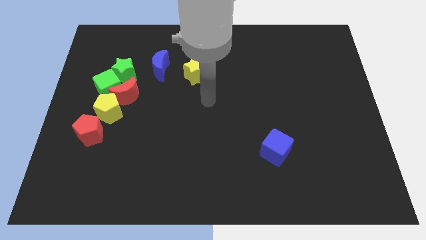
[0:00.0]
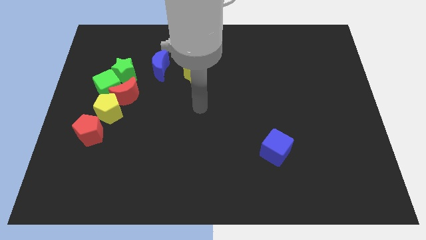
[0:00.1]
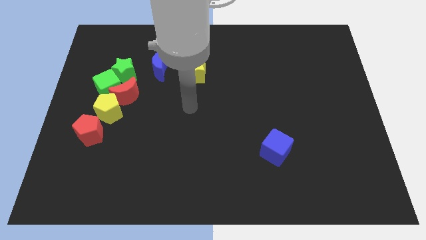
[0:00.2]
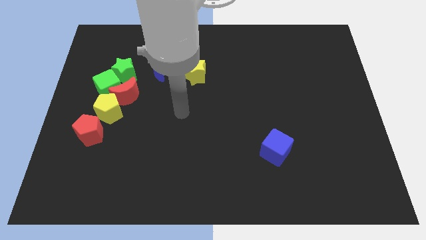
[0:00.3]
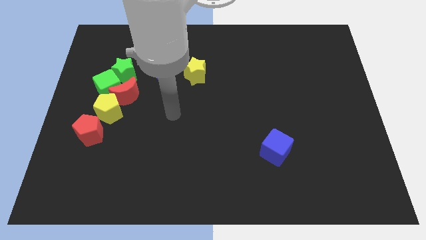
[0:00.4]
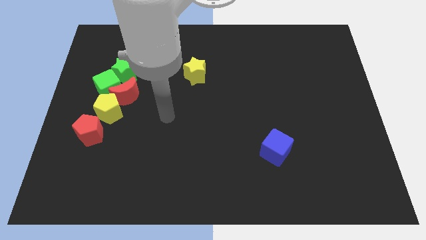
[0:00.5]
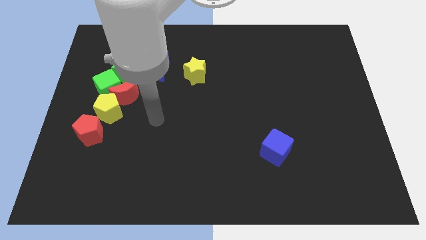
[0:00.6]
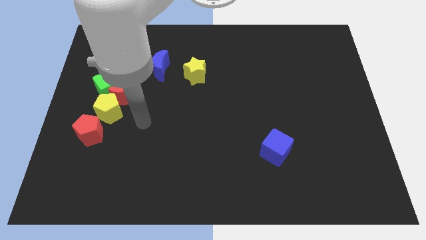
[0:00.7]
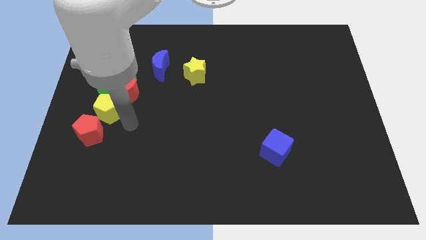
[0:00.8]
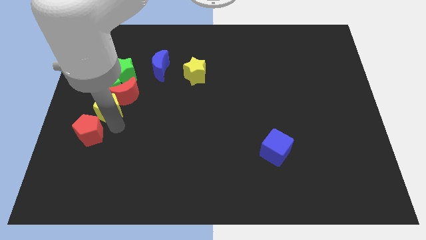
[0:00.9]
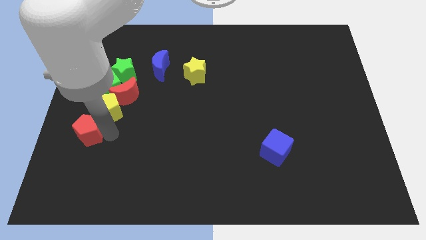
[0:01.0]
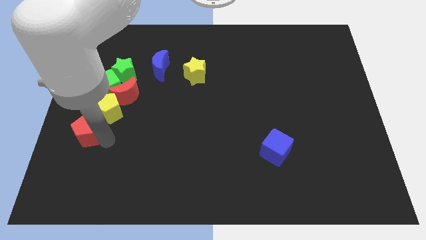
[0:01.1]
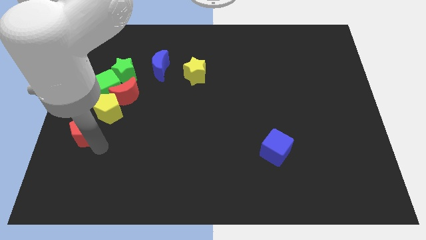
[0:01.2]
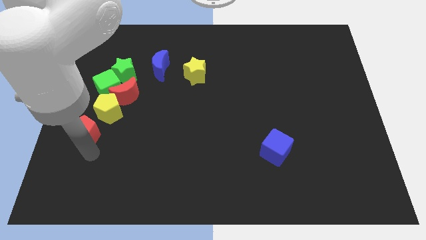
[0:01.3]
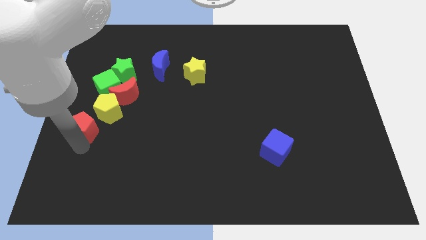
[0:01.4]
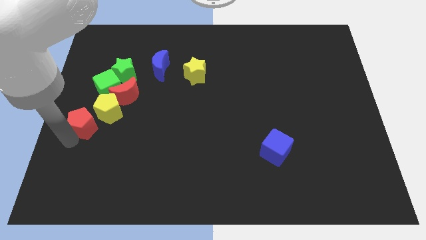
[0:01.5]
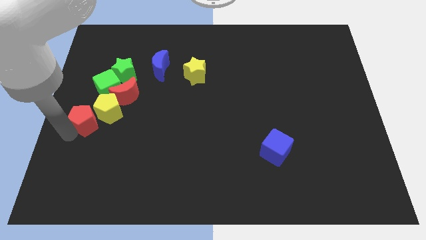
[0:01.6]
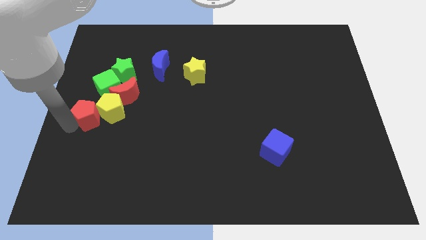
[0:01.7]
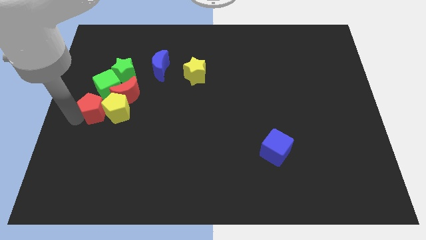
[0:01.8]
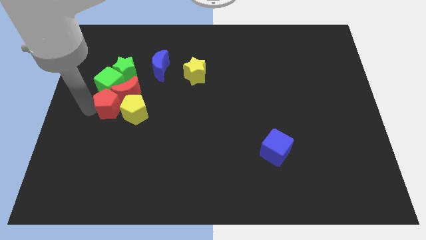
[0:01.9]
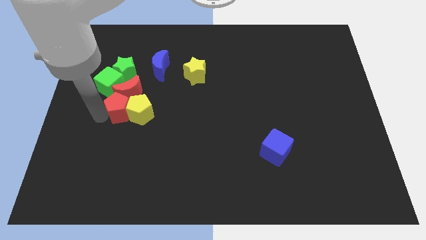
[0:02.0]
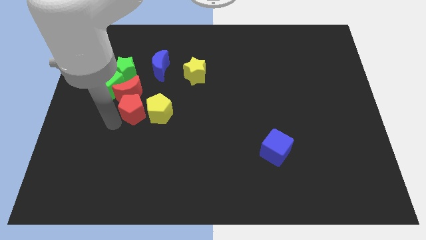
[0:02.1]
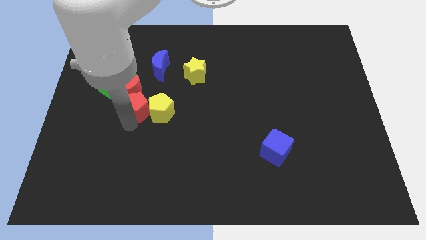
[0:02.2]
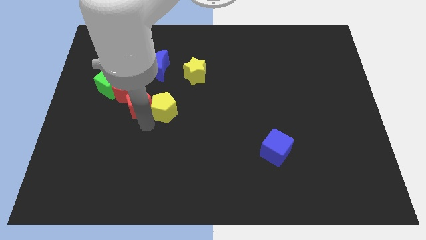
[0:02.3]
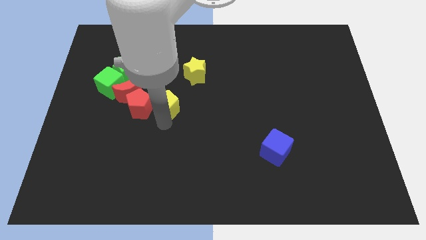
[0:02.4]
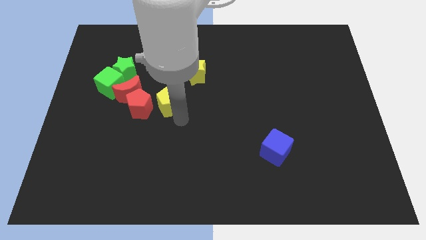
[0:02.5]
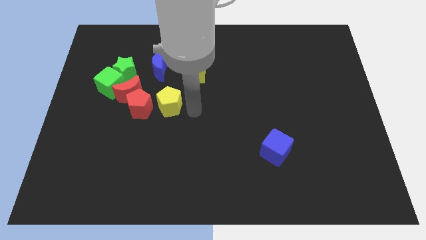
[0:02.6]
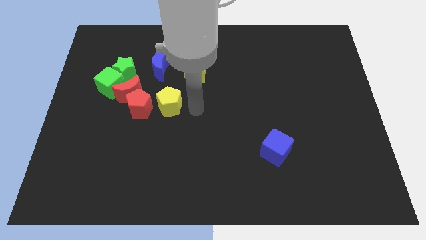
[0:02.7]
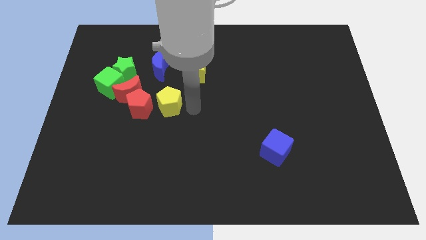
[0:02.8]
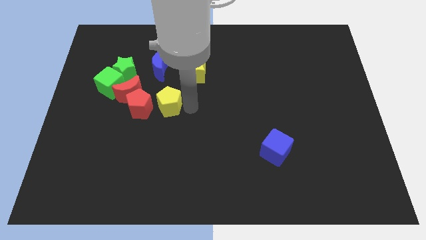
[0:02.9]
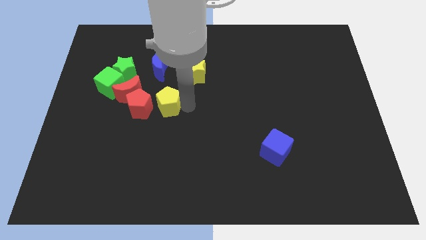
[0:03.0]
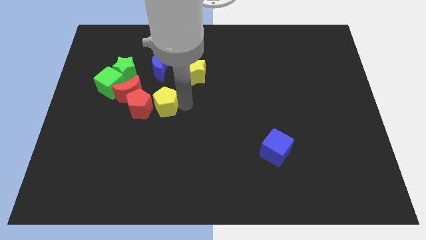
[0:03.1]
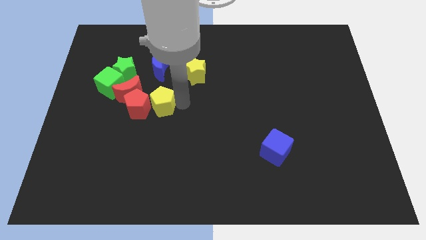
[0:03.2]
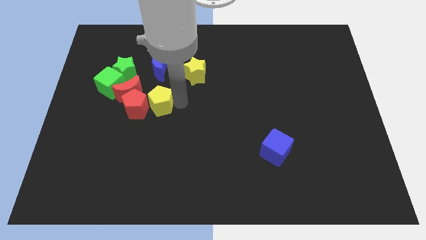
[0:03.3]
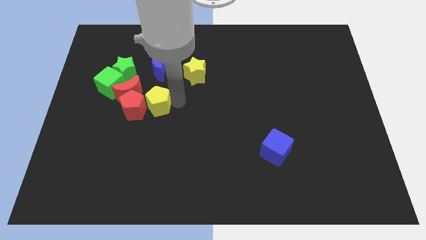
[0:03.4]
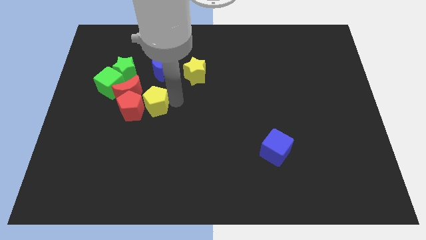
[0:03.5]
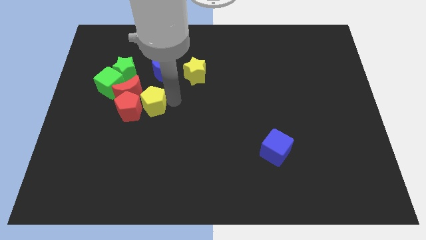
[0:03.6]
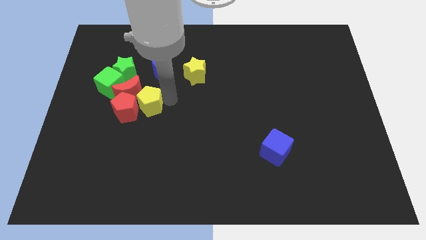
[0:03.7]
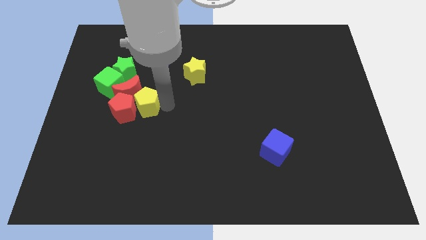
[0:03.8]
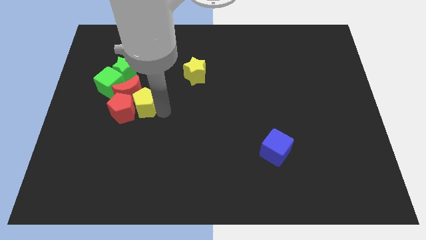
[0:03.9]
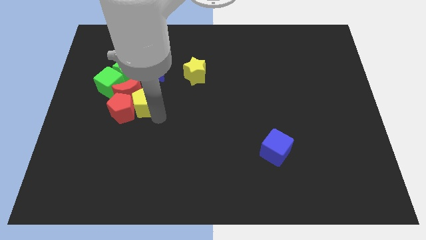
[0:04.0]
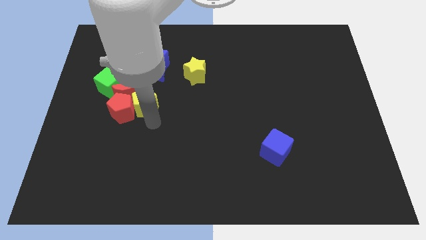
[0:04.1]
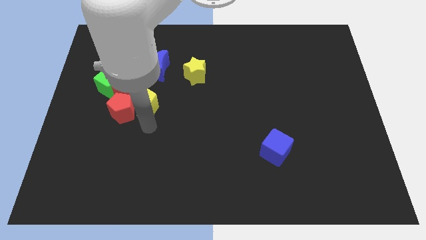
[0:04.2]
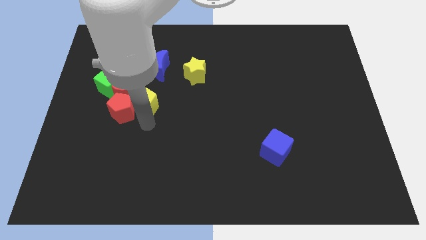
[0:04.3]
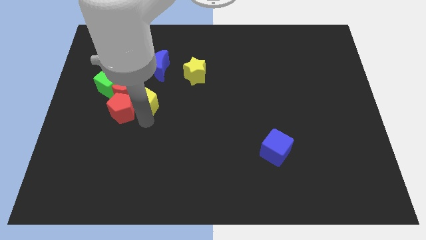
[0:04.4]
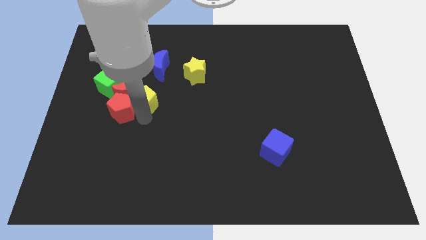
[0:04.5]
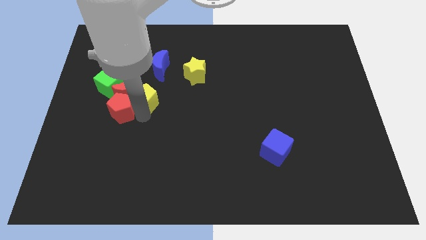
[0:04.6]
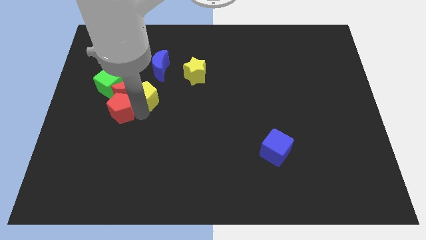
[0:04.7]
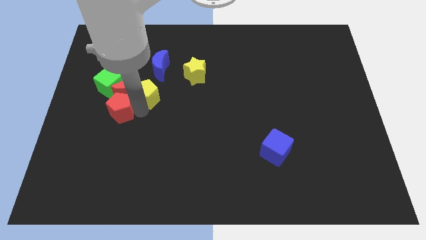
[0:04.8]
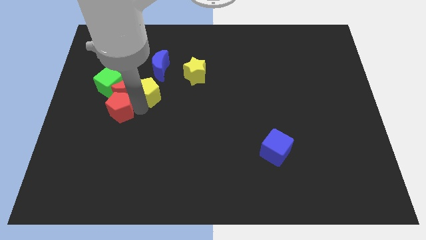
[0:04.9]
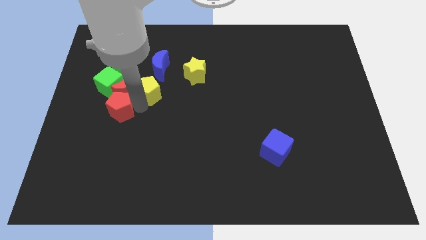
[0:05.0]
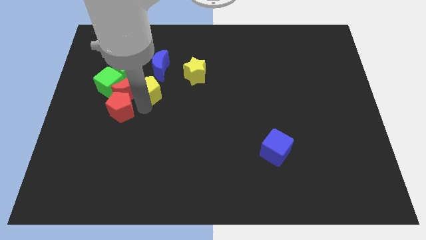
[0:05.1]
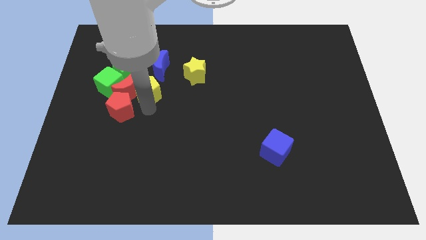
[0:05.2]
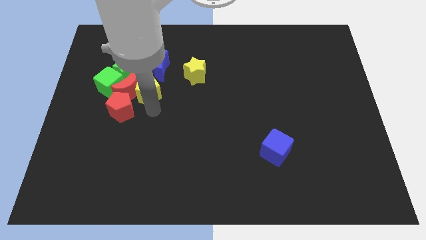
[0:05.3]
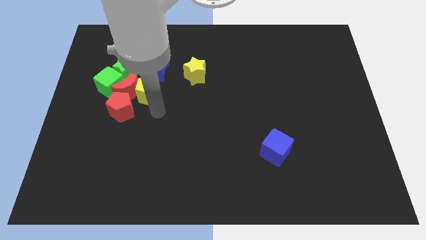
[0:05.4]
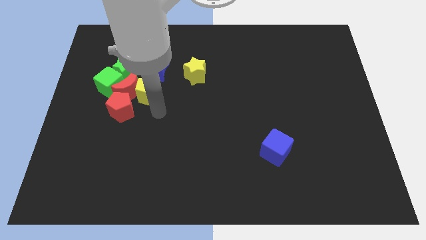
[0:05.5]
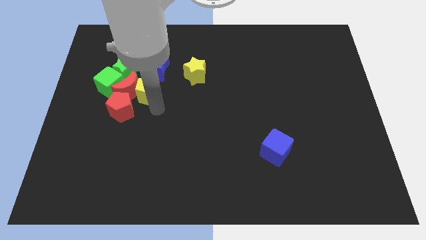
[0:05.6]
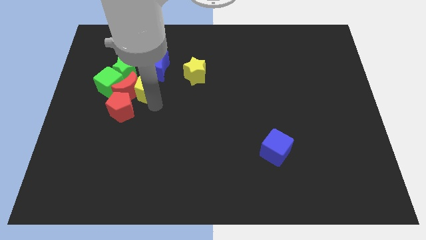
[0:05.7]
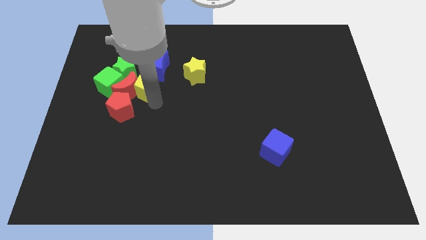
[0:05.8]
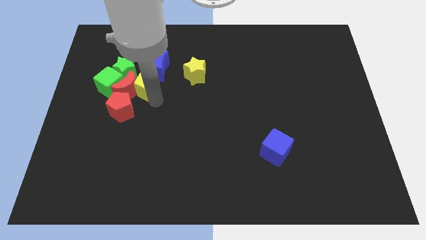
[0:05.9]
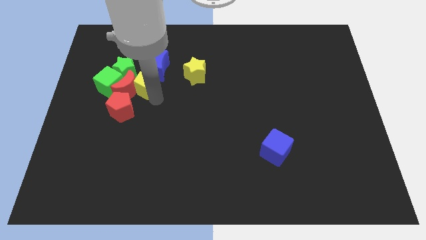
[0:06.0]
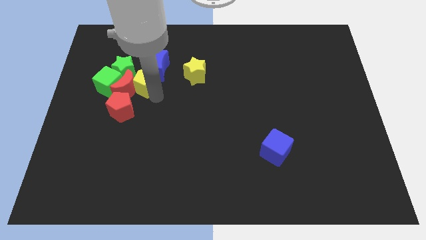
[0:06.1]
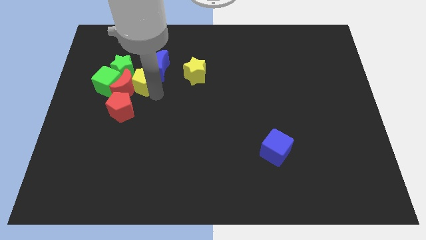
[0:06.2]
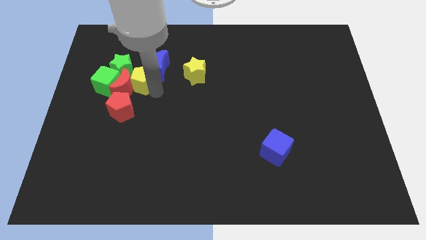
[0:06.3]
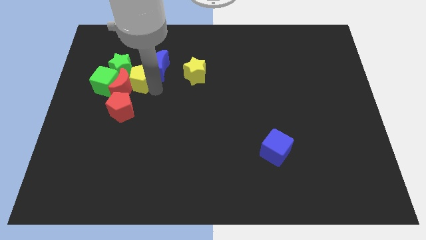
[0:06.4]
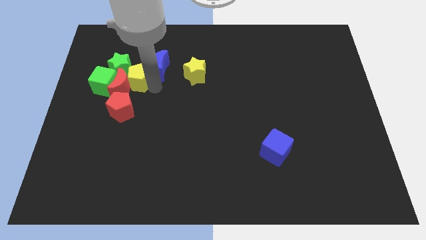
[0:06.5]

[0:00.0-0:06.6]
put the yellow pentagon to the top right of the green cube
